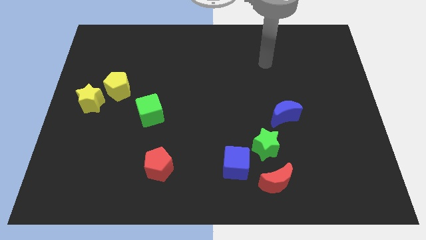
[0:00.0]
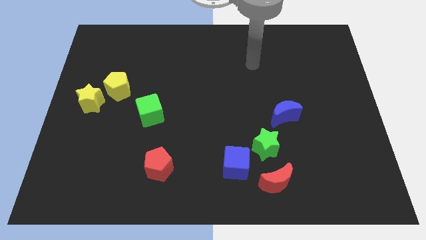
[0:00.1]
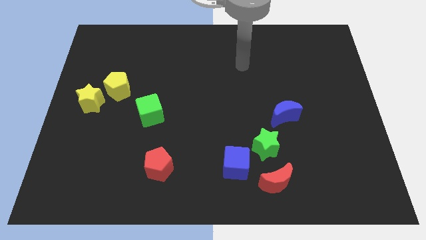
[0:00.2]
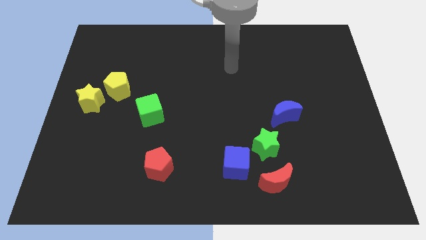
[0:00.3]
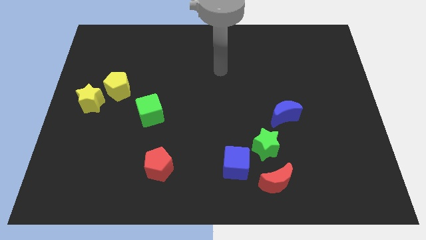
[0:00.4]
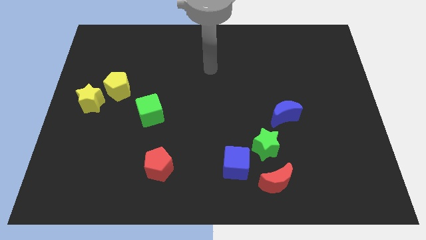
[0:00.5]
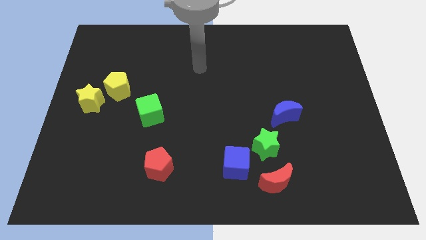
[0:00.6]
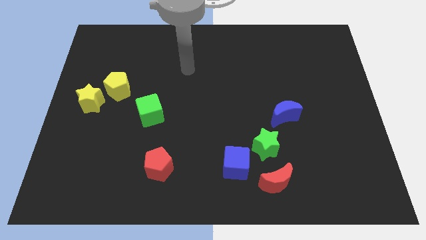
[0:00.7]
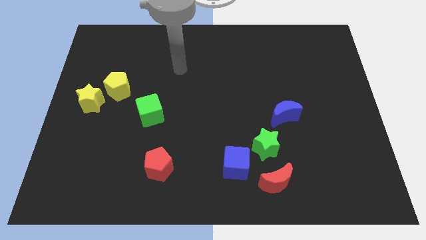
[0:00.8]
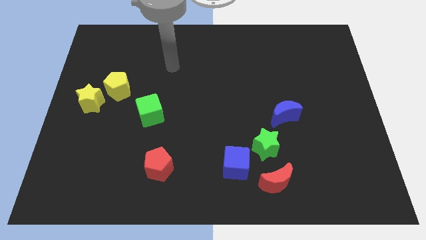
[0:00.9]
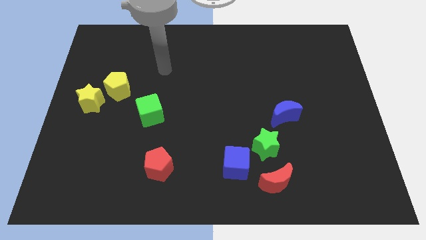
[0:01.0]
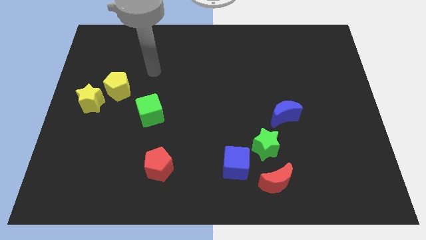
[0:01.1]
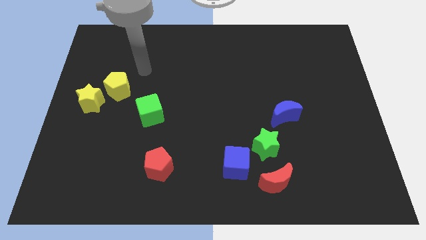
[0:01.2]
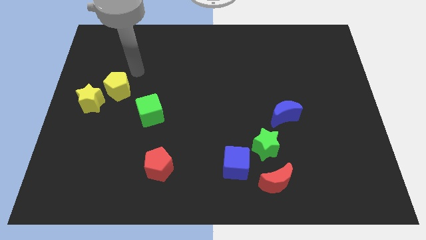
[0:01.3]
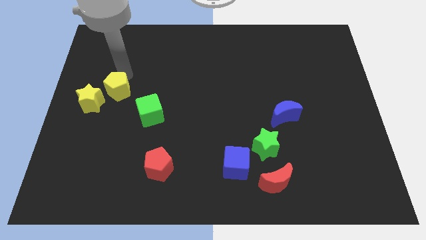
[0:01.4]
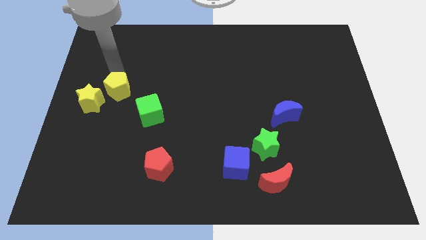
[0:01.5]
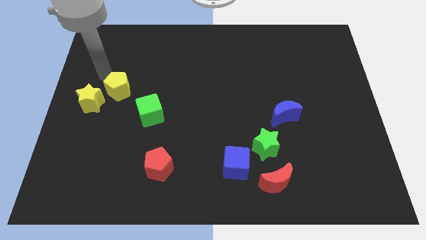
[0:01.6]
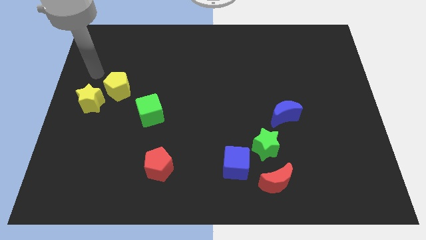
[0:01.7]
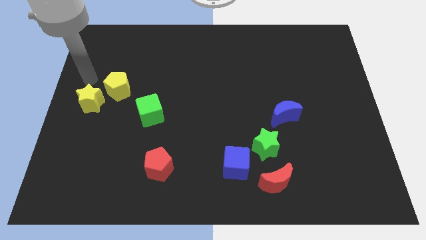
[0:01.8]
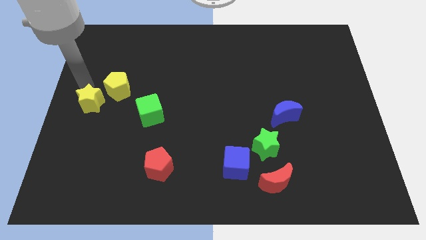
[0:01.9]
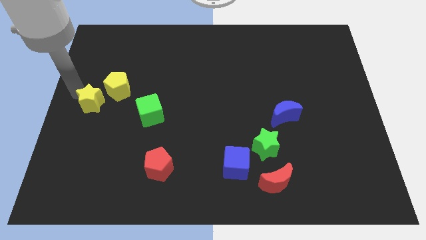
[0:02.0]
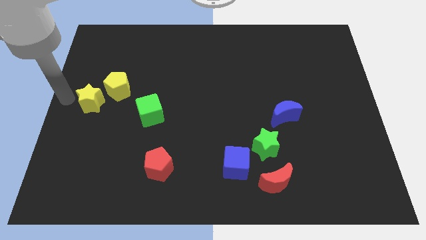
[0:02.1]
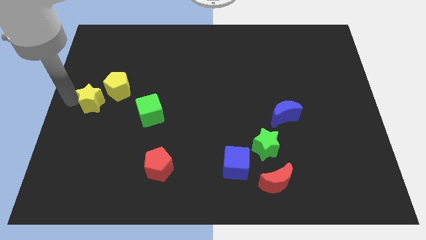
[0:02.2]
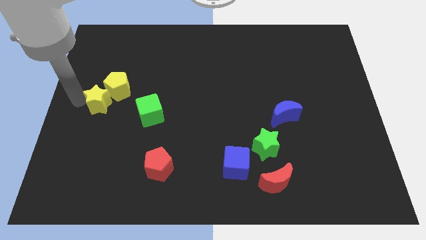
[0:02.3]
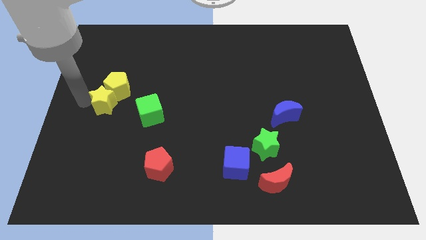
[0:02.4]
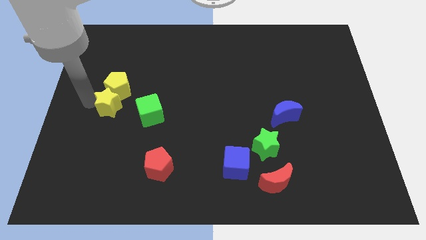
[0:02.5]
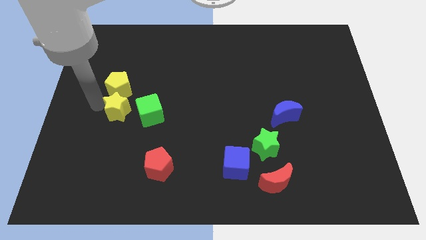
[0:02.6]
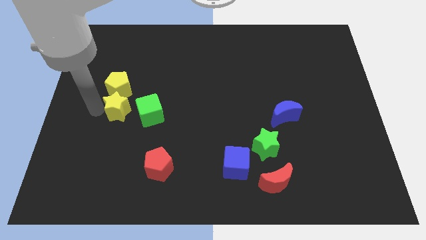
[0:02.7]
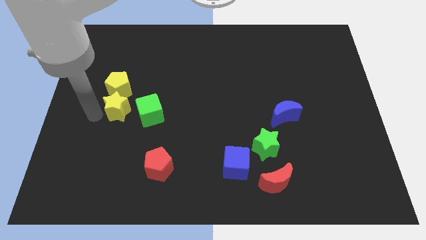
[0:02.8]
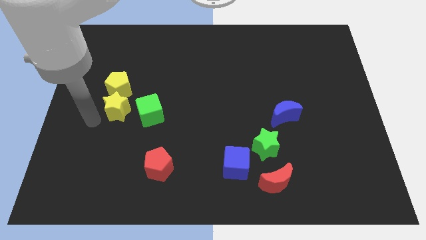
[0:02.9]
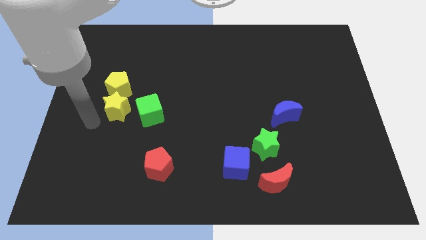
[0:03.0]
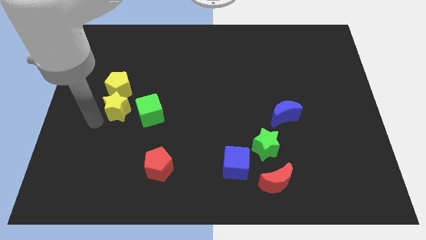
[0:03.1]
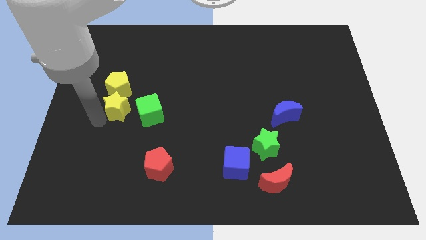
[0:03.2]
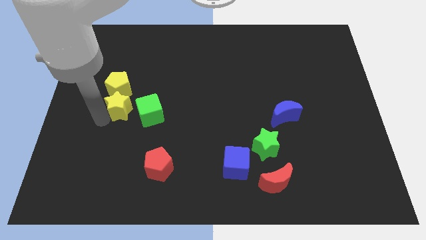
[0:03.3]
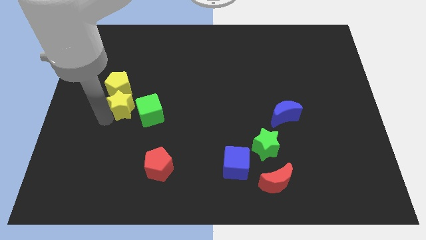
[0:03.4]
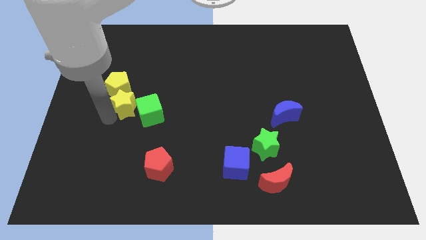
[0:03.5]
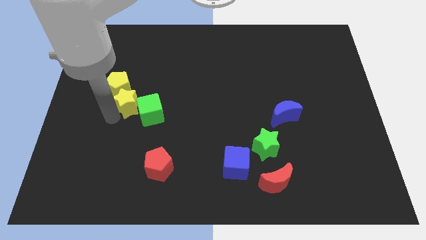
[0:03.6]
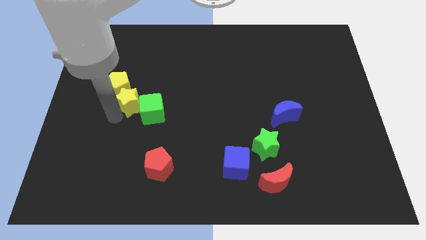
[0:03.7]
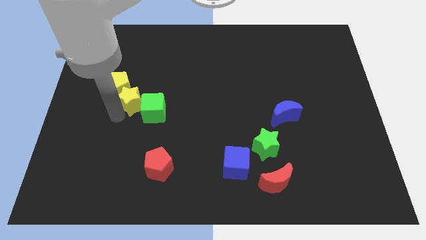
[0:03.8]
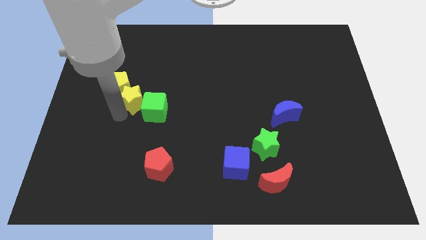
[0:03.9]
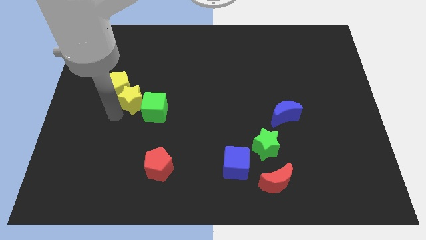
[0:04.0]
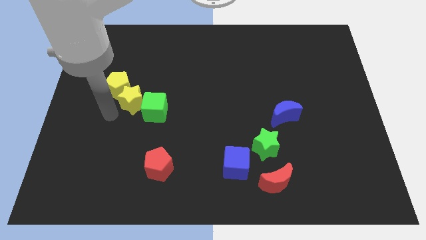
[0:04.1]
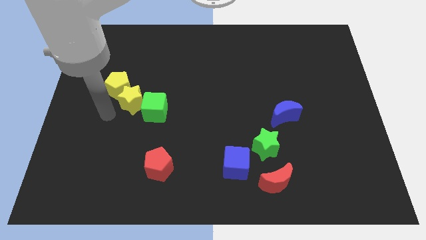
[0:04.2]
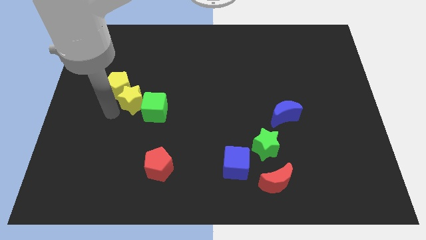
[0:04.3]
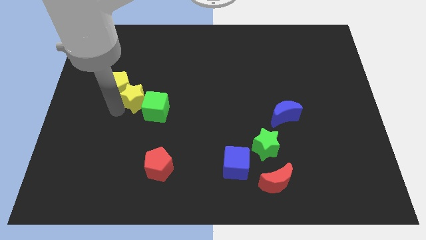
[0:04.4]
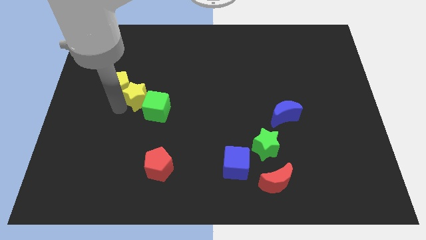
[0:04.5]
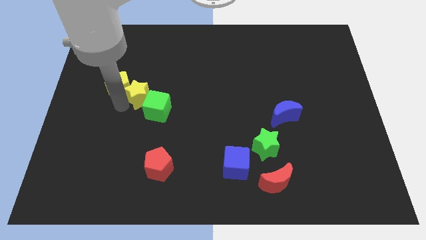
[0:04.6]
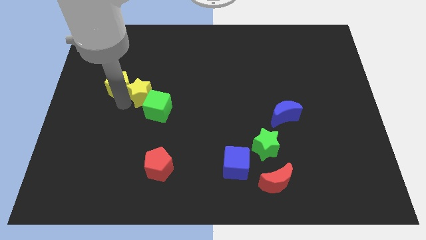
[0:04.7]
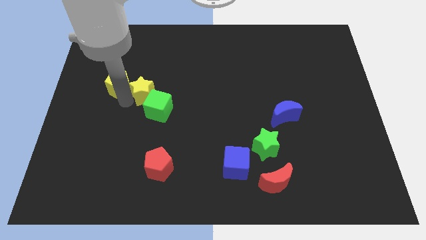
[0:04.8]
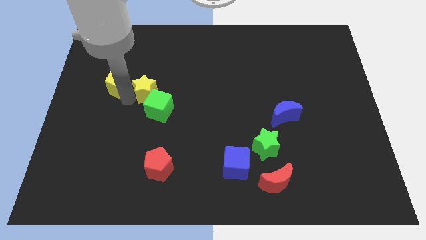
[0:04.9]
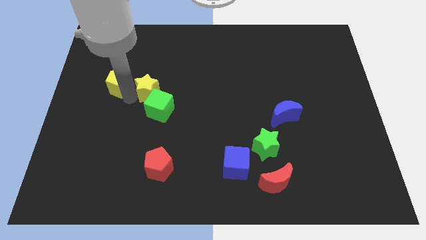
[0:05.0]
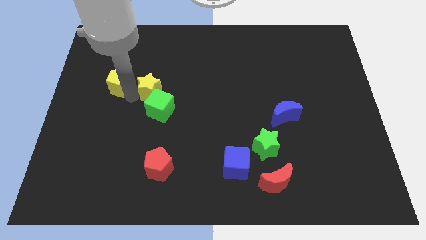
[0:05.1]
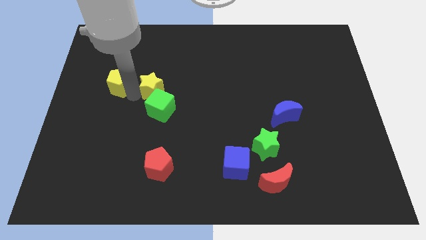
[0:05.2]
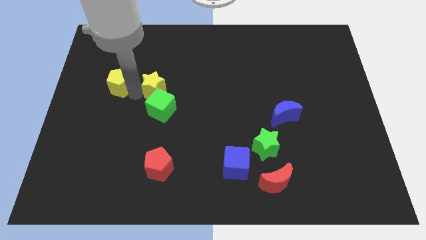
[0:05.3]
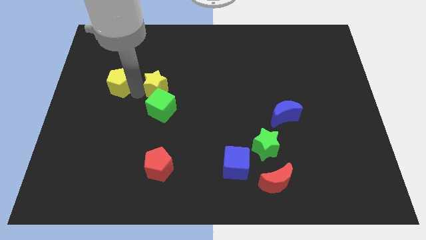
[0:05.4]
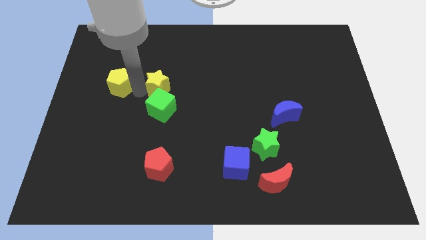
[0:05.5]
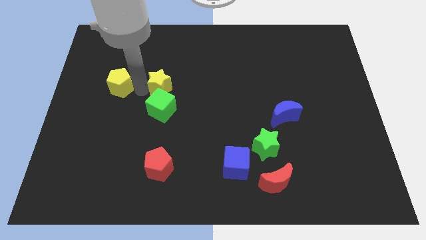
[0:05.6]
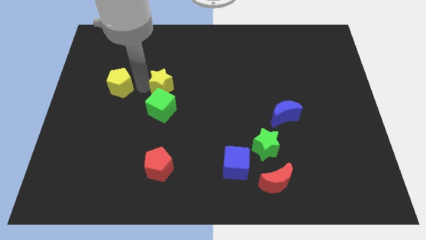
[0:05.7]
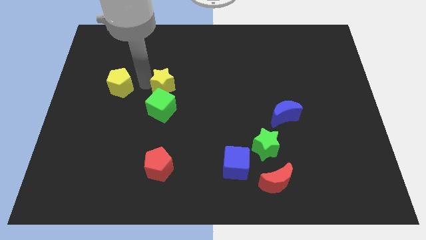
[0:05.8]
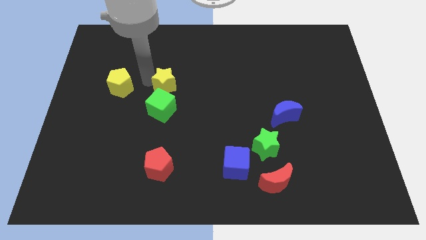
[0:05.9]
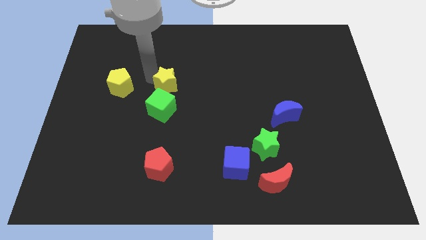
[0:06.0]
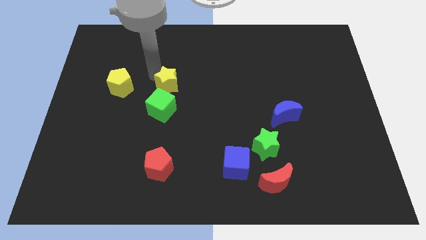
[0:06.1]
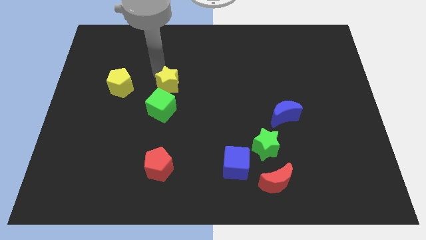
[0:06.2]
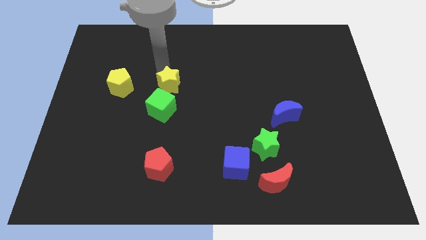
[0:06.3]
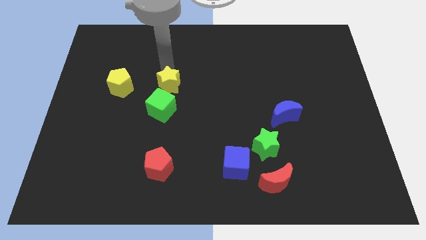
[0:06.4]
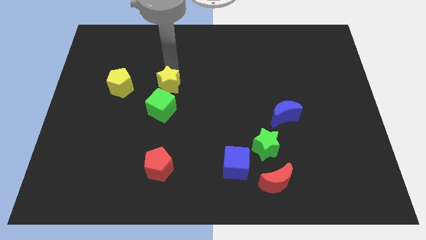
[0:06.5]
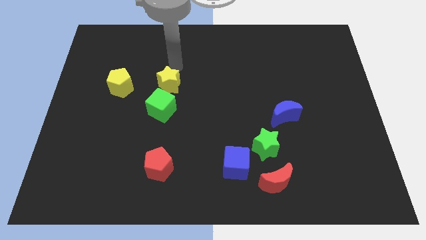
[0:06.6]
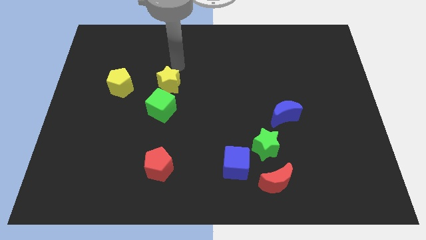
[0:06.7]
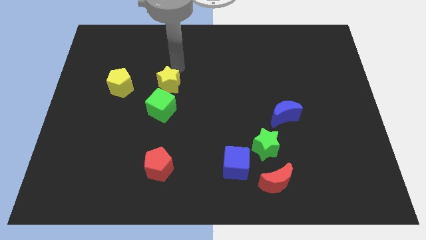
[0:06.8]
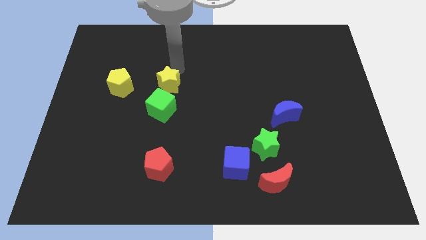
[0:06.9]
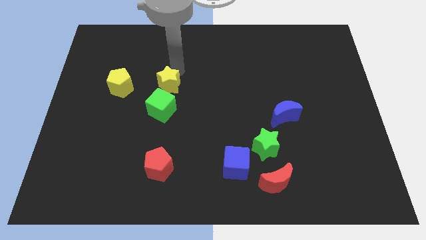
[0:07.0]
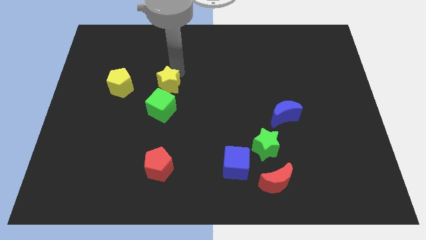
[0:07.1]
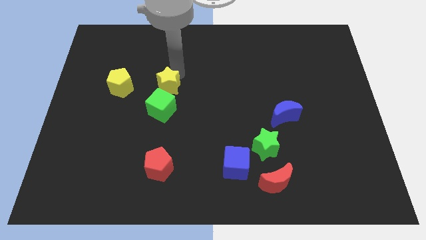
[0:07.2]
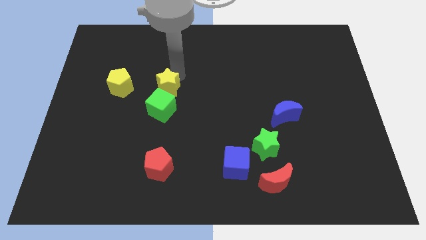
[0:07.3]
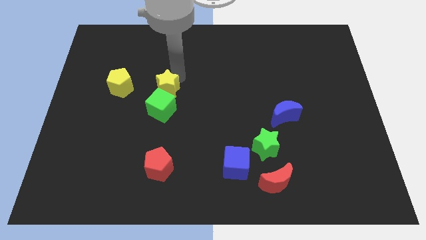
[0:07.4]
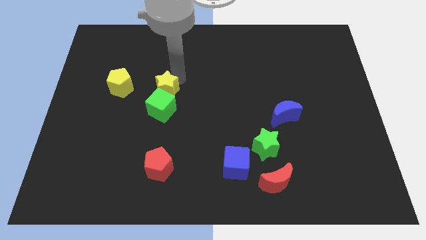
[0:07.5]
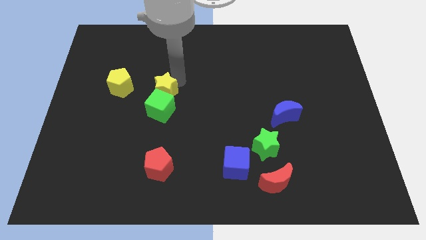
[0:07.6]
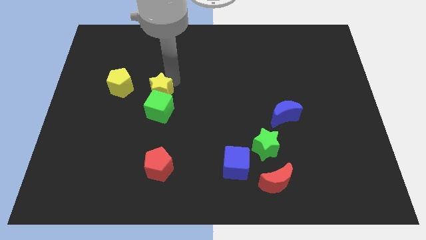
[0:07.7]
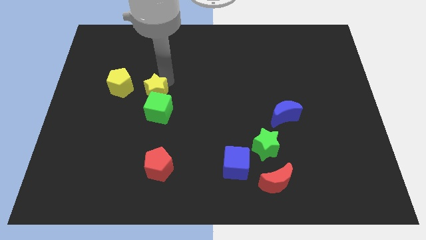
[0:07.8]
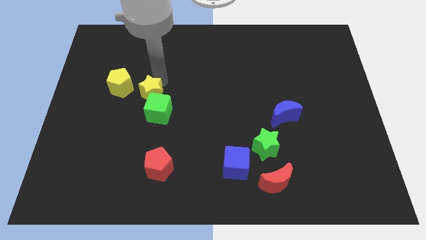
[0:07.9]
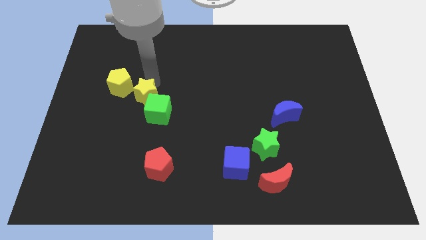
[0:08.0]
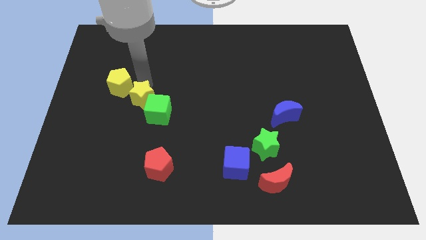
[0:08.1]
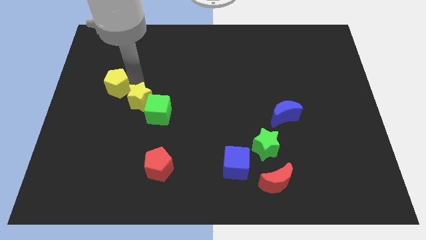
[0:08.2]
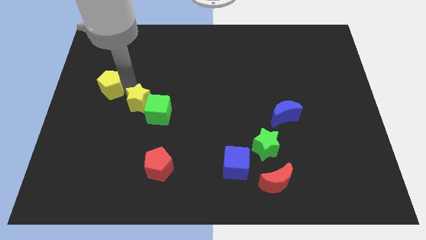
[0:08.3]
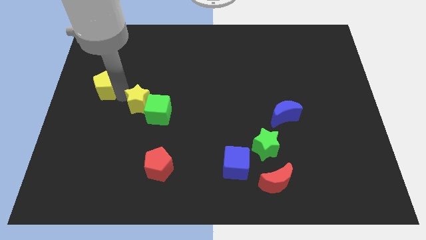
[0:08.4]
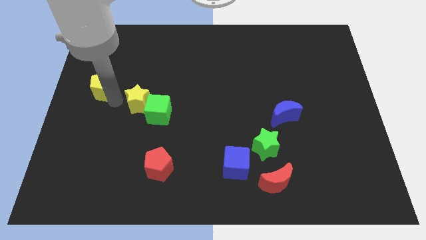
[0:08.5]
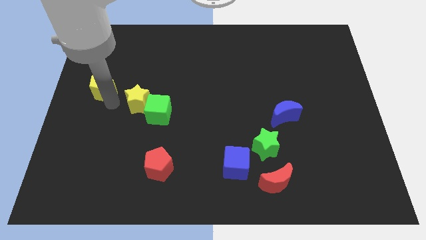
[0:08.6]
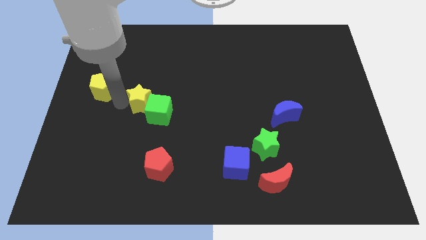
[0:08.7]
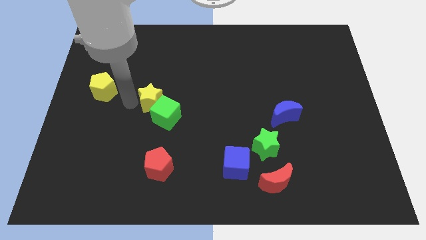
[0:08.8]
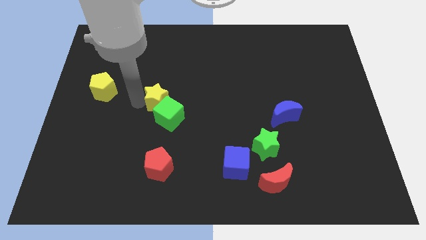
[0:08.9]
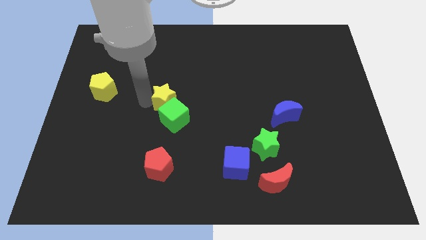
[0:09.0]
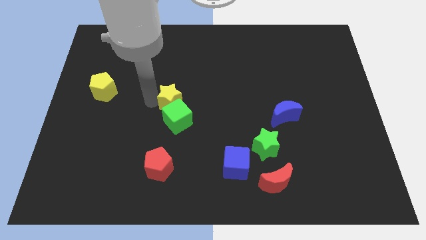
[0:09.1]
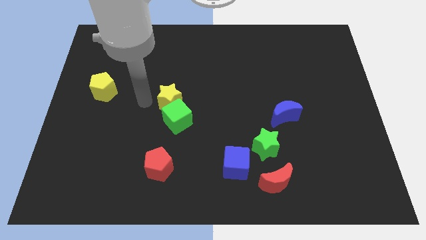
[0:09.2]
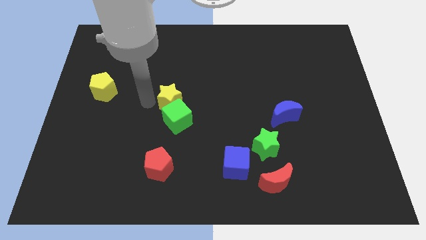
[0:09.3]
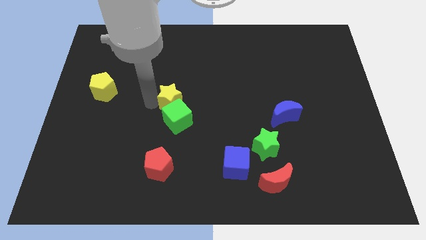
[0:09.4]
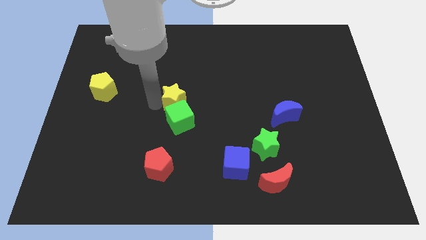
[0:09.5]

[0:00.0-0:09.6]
push the yellow star right
